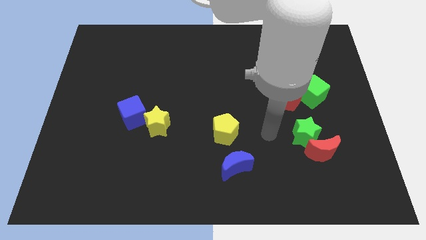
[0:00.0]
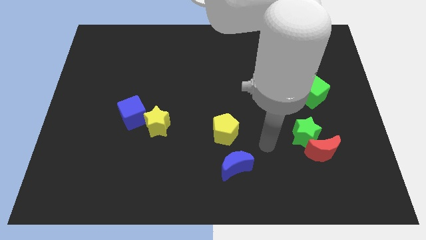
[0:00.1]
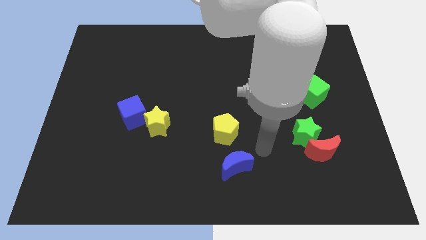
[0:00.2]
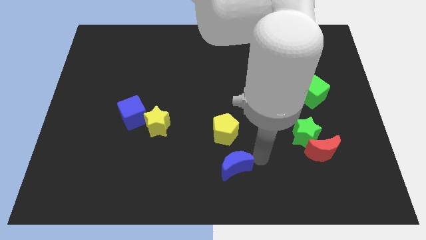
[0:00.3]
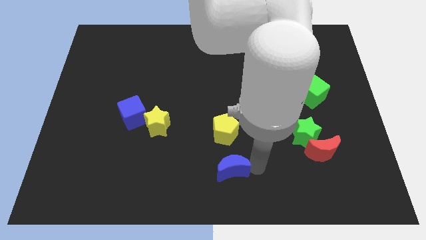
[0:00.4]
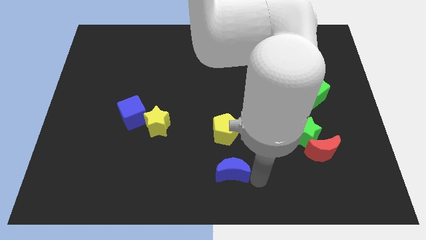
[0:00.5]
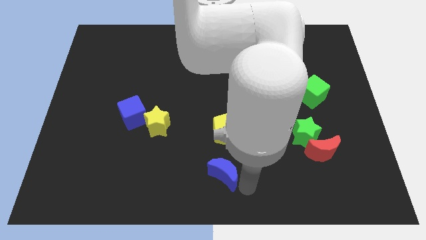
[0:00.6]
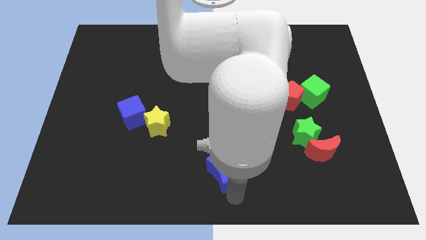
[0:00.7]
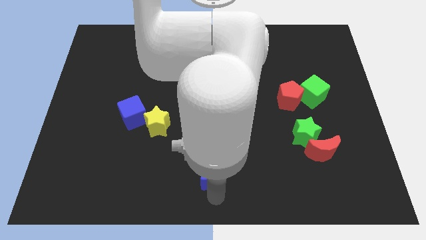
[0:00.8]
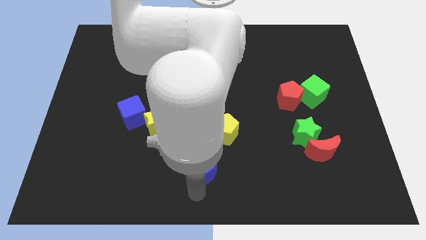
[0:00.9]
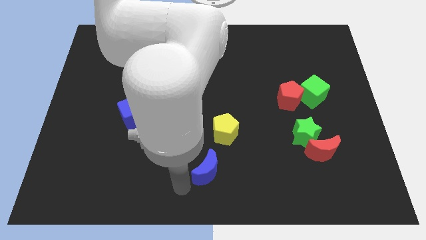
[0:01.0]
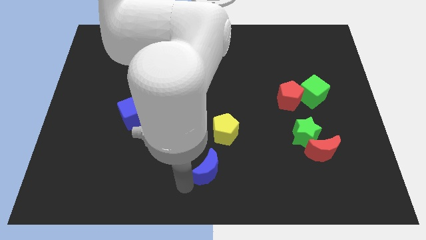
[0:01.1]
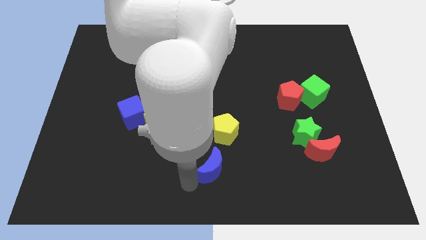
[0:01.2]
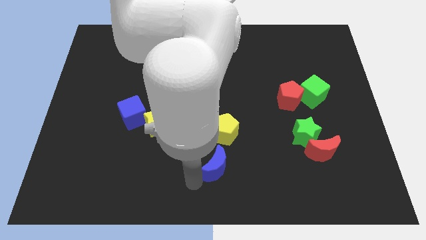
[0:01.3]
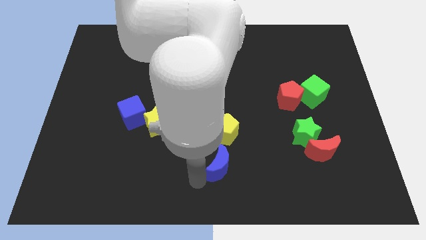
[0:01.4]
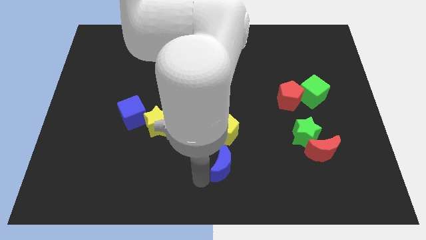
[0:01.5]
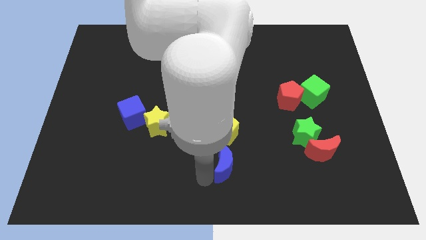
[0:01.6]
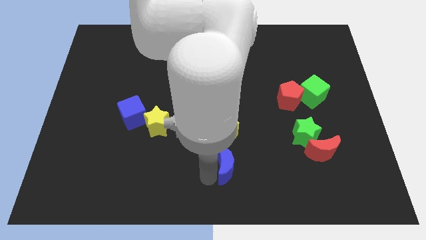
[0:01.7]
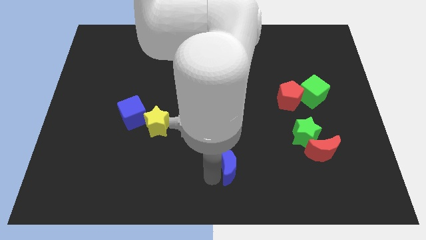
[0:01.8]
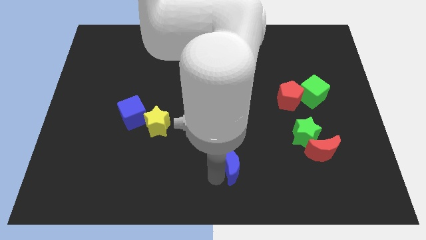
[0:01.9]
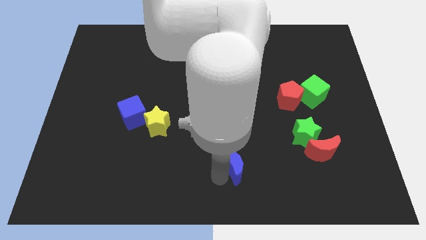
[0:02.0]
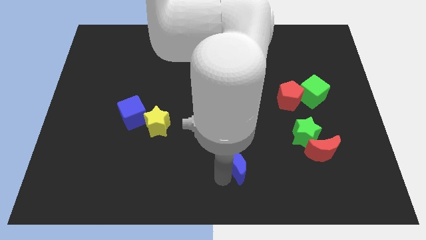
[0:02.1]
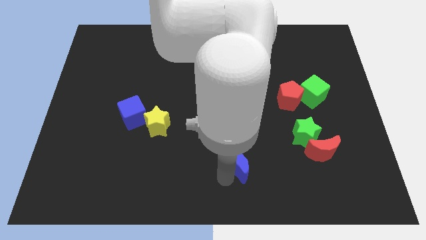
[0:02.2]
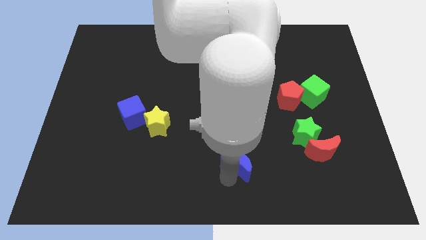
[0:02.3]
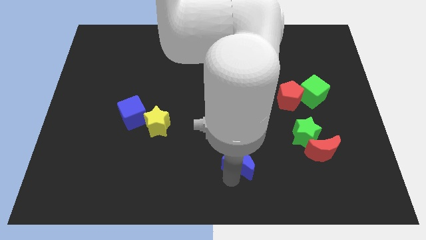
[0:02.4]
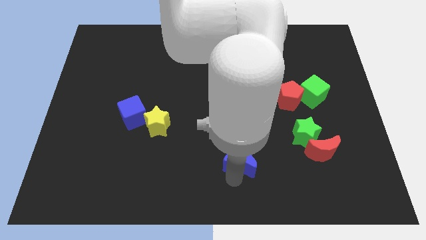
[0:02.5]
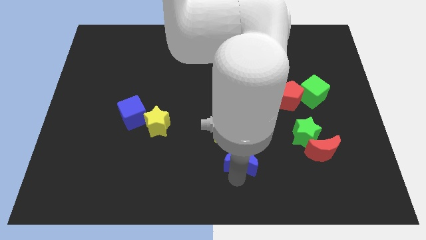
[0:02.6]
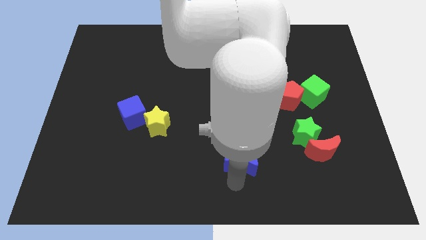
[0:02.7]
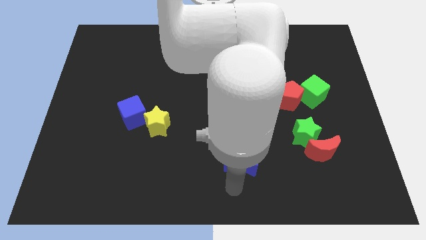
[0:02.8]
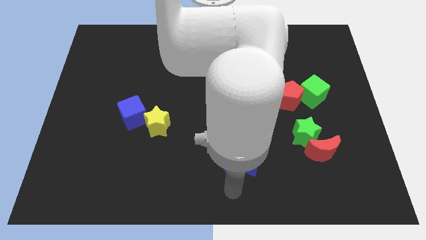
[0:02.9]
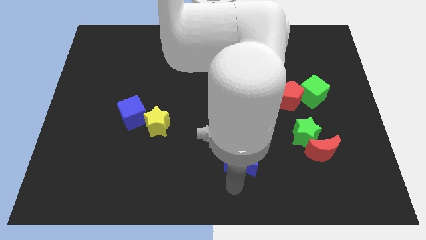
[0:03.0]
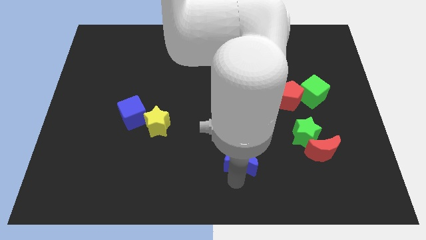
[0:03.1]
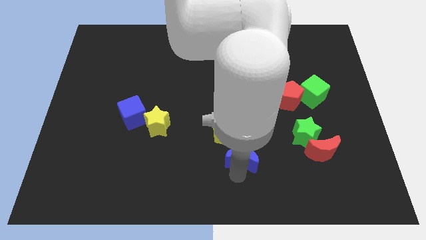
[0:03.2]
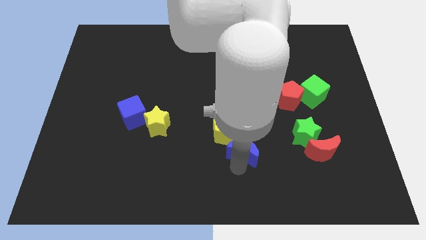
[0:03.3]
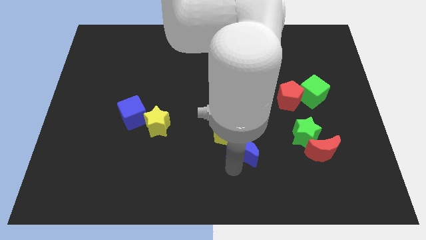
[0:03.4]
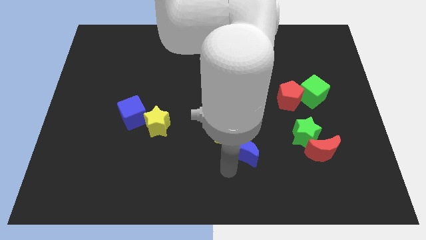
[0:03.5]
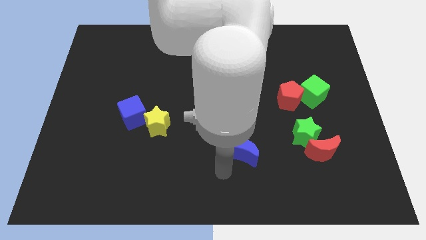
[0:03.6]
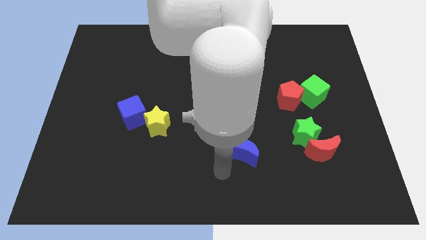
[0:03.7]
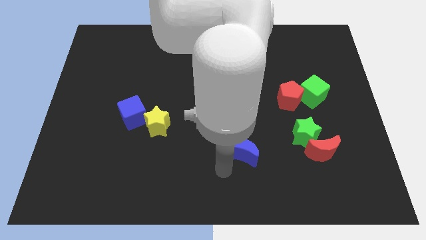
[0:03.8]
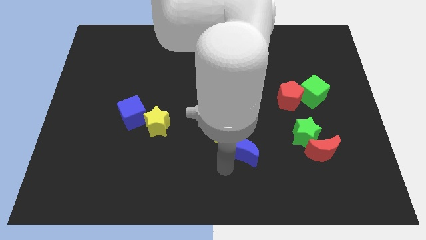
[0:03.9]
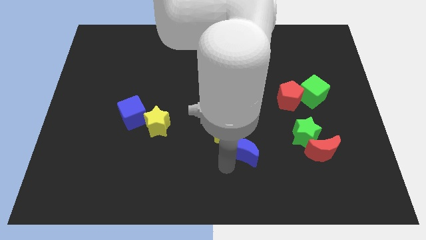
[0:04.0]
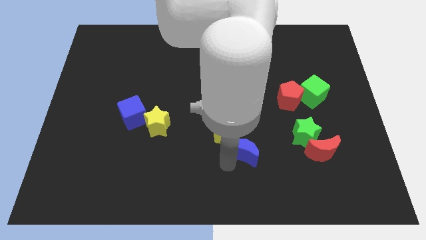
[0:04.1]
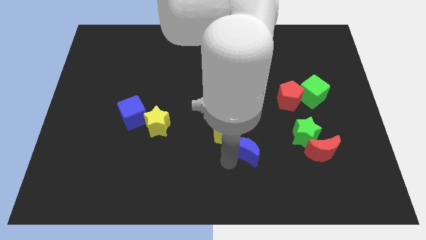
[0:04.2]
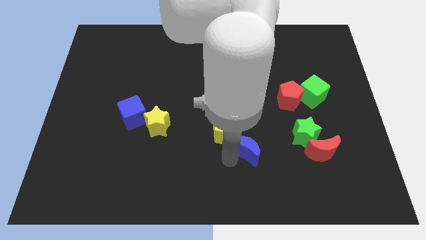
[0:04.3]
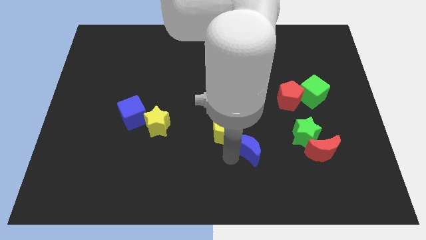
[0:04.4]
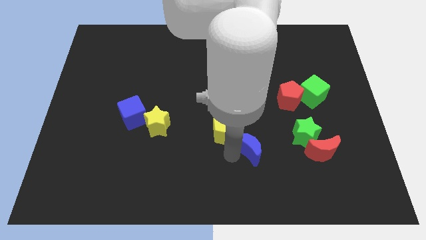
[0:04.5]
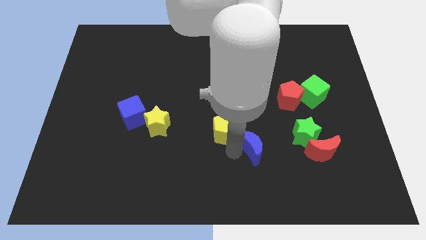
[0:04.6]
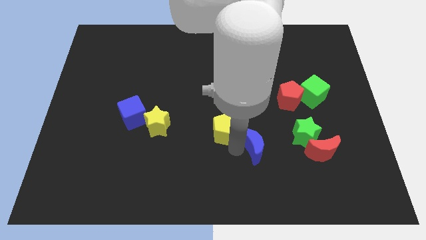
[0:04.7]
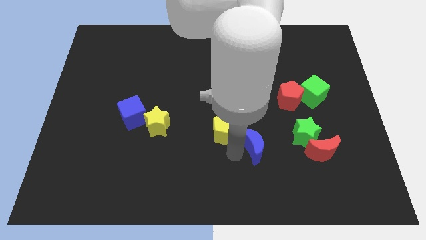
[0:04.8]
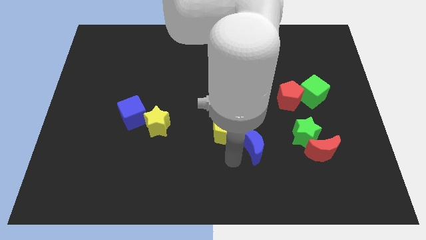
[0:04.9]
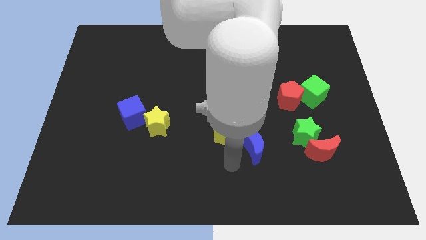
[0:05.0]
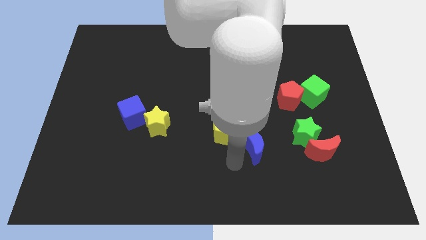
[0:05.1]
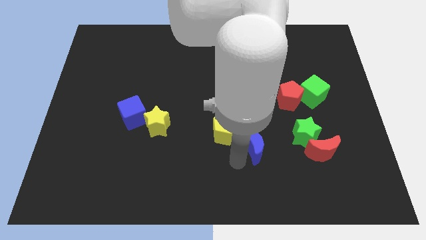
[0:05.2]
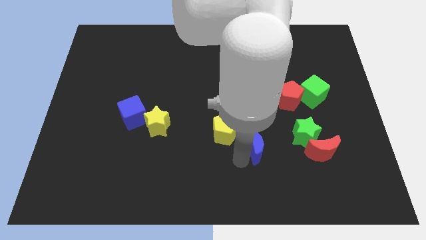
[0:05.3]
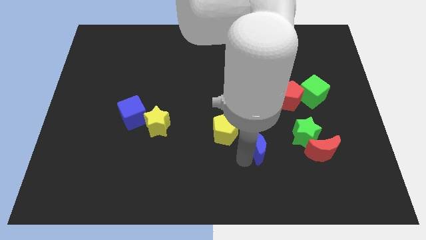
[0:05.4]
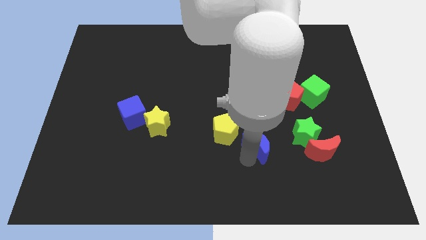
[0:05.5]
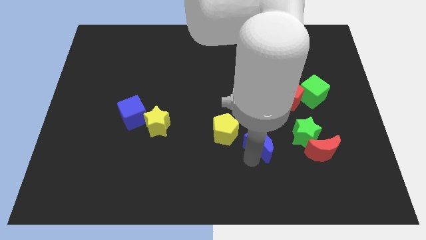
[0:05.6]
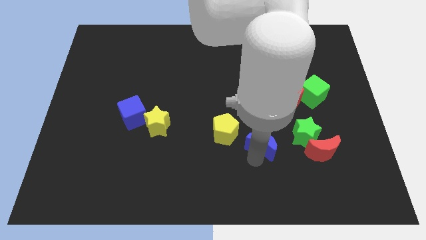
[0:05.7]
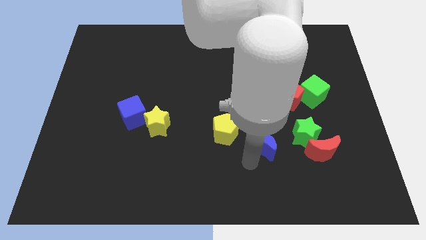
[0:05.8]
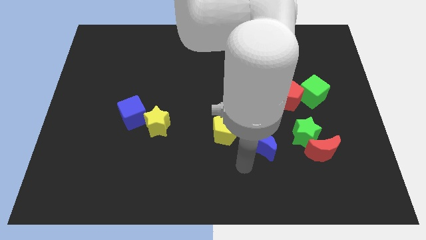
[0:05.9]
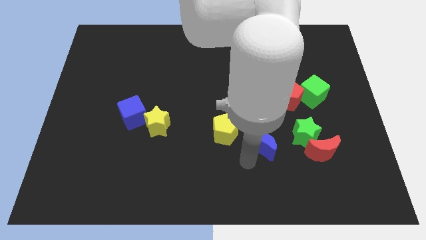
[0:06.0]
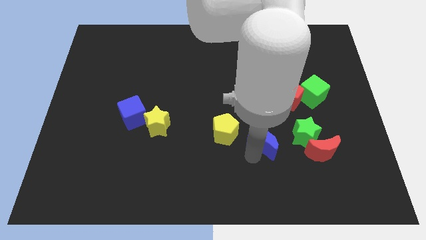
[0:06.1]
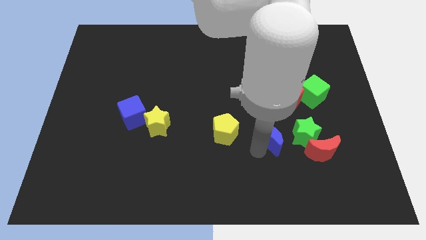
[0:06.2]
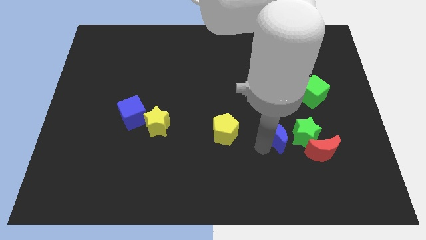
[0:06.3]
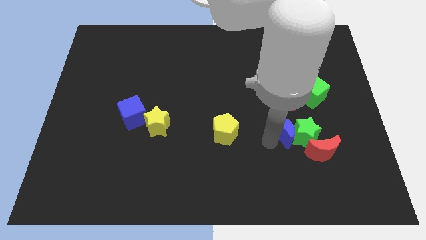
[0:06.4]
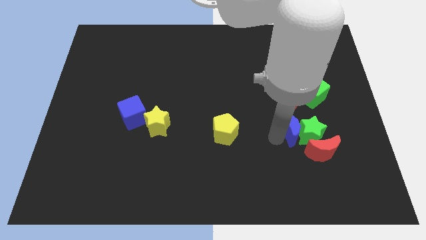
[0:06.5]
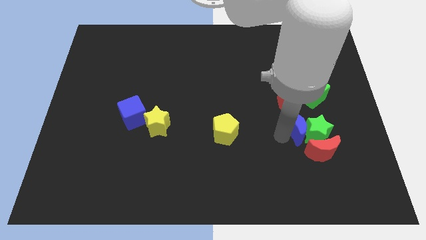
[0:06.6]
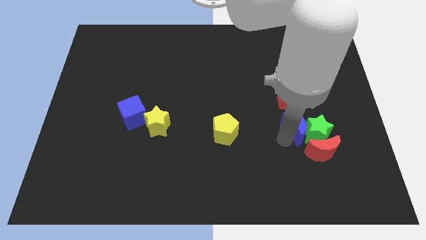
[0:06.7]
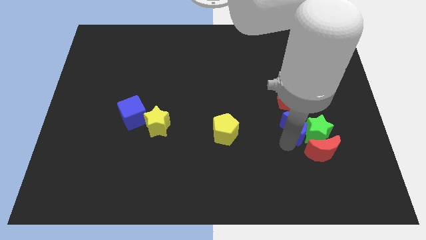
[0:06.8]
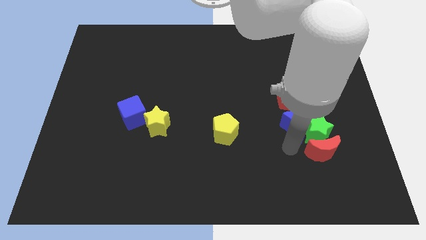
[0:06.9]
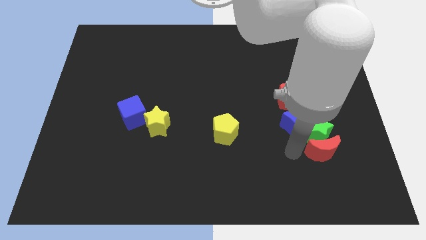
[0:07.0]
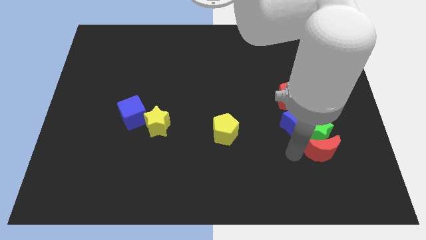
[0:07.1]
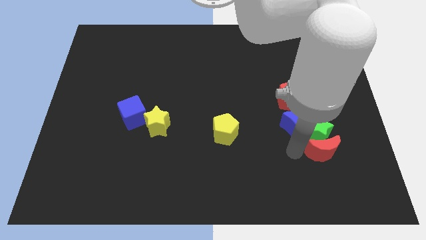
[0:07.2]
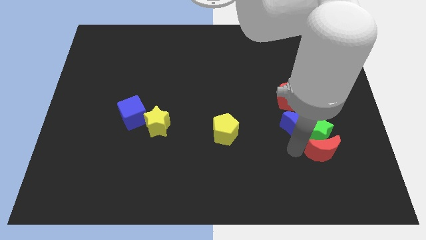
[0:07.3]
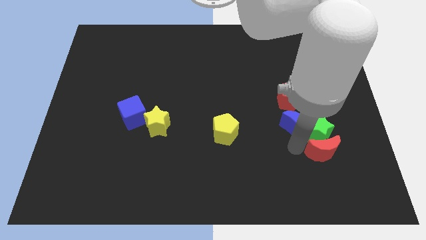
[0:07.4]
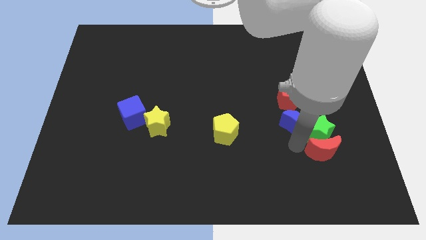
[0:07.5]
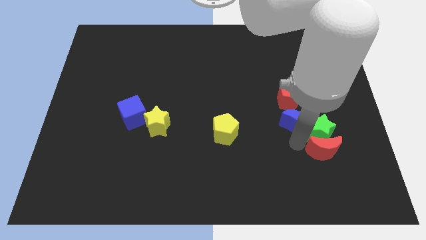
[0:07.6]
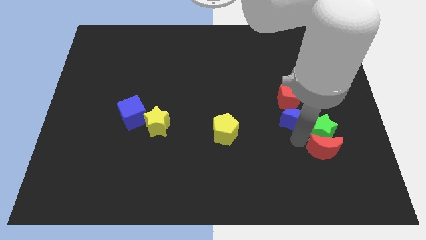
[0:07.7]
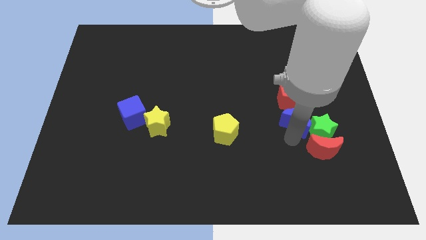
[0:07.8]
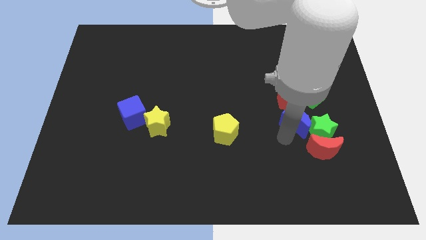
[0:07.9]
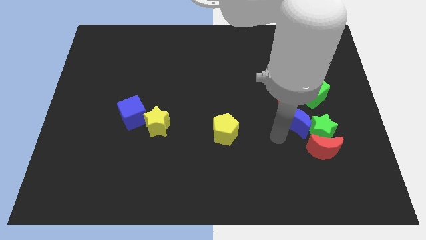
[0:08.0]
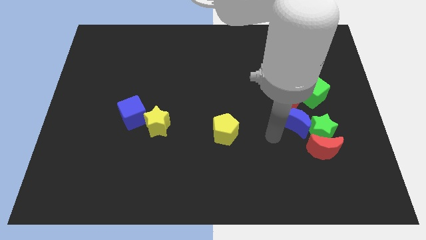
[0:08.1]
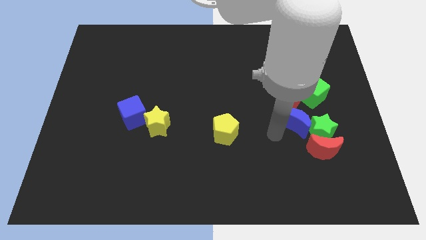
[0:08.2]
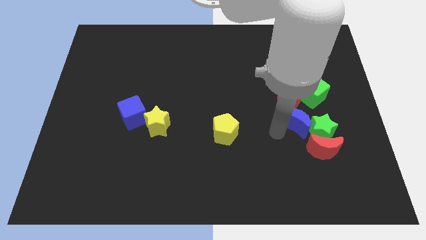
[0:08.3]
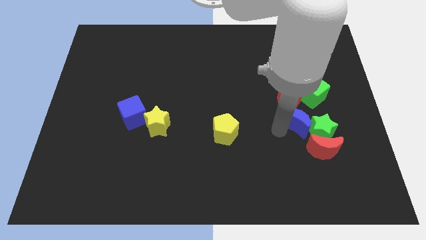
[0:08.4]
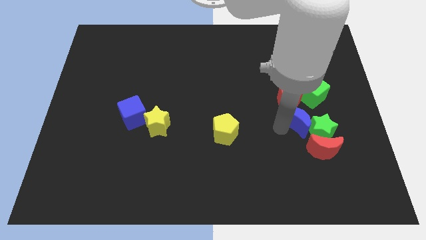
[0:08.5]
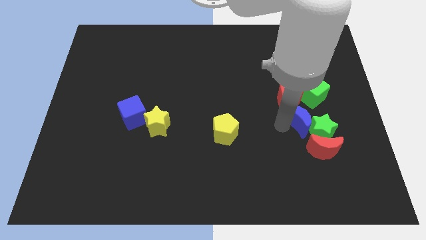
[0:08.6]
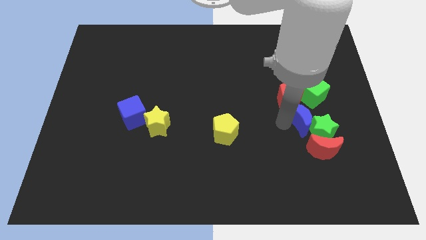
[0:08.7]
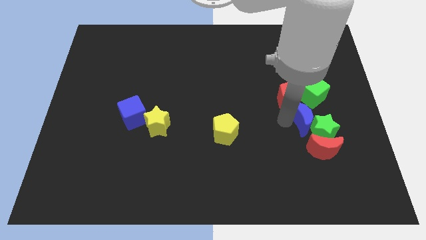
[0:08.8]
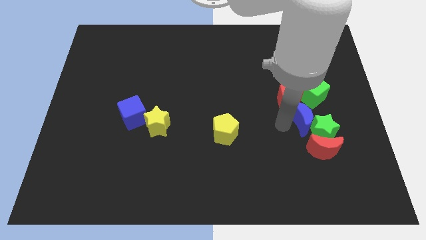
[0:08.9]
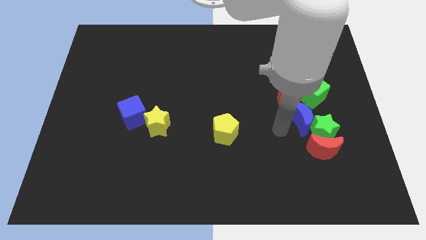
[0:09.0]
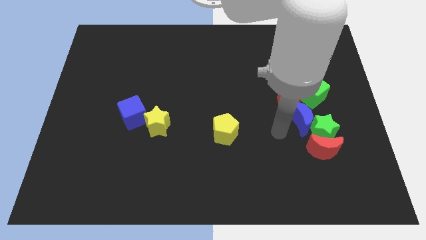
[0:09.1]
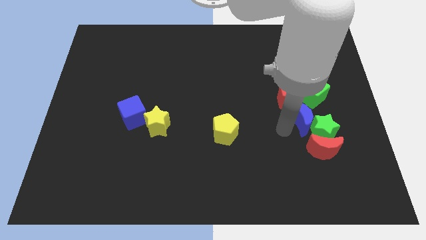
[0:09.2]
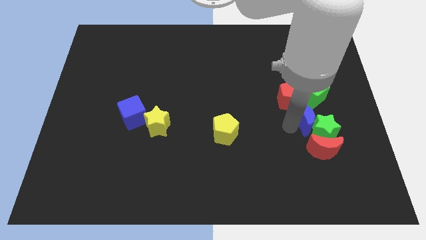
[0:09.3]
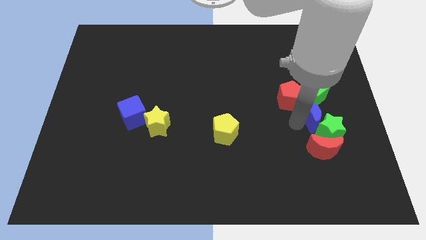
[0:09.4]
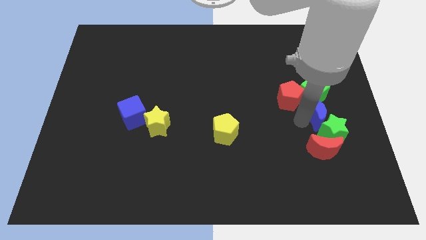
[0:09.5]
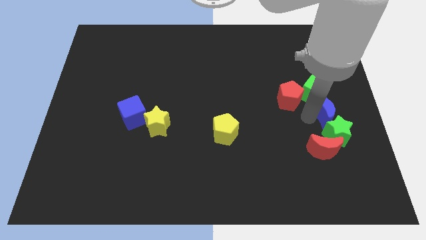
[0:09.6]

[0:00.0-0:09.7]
slide the blue moon to the right side
